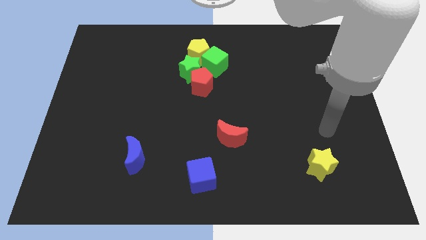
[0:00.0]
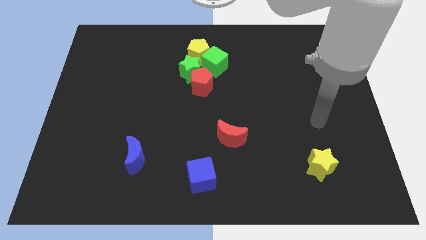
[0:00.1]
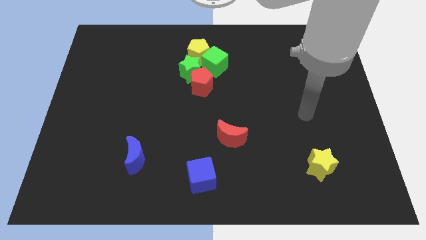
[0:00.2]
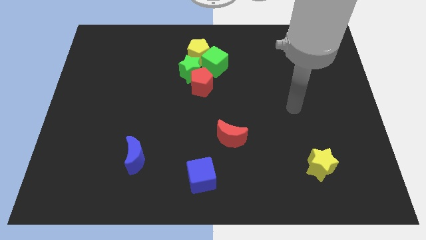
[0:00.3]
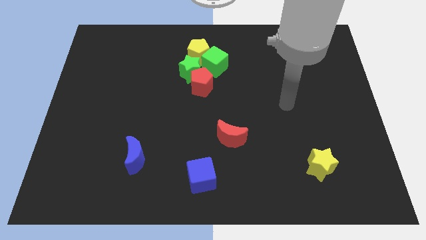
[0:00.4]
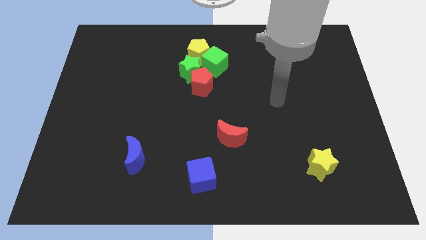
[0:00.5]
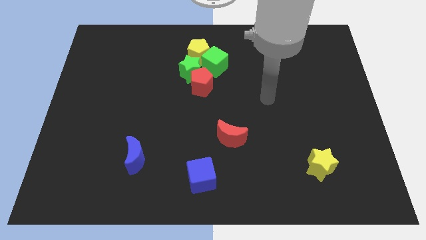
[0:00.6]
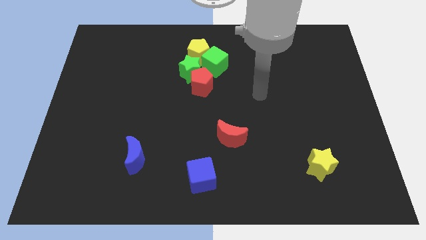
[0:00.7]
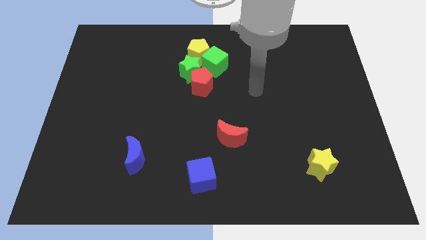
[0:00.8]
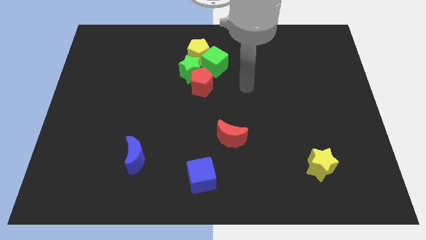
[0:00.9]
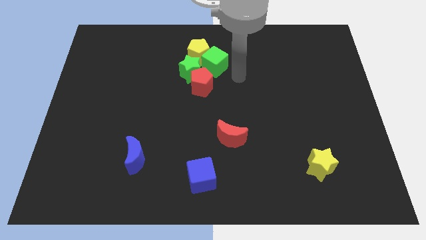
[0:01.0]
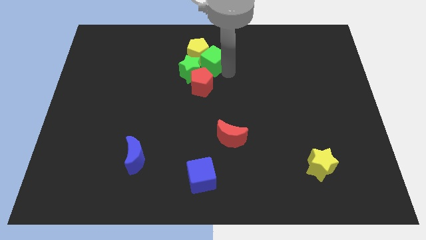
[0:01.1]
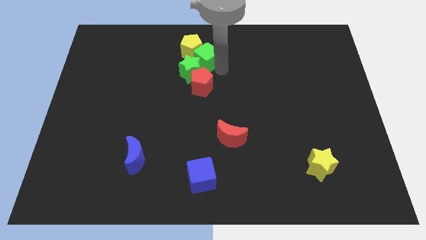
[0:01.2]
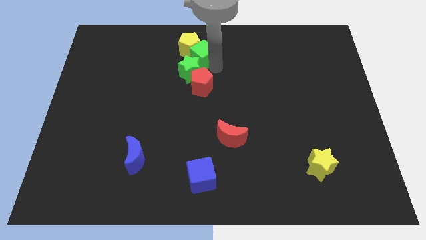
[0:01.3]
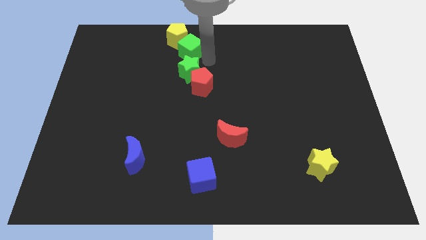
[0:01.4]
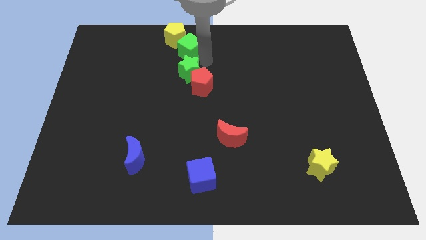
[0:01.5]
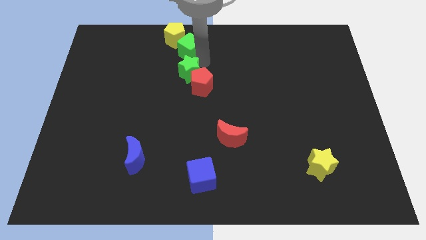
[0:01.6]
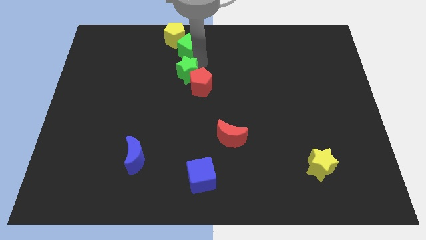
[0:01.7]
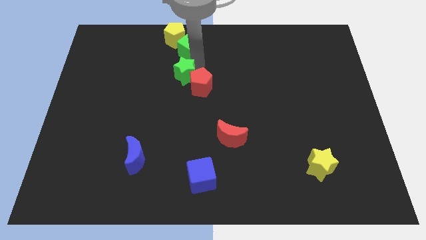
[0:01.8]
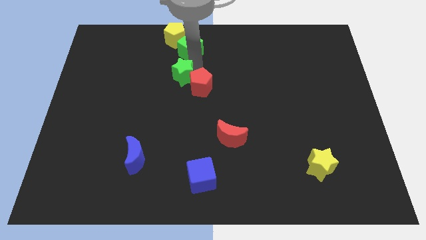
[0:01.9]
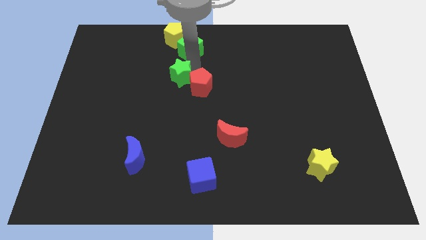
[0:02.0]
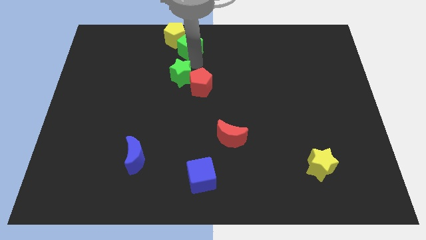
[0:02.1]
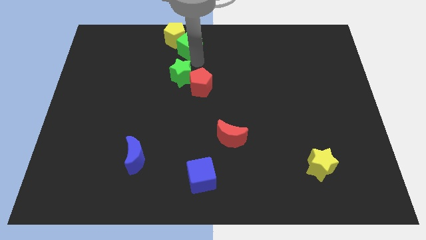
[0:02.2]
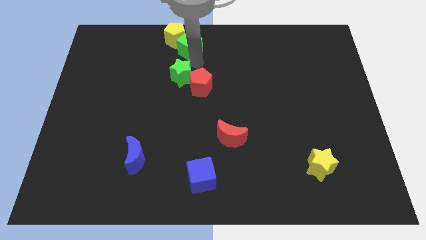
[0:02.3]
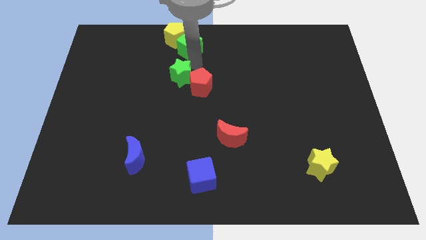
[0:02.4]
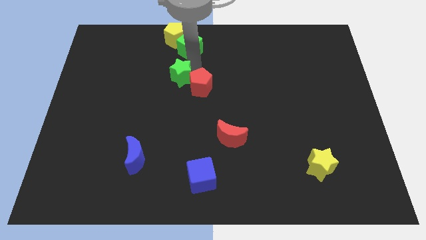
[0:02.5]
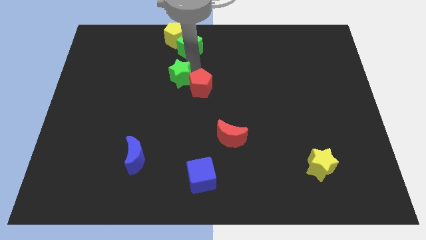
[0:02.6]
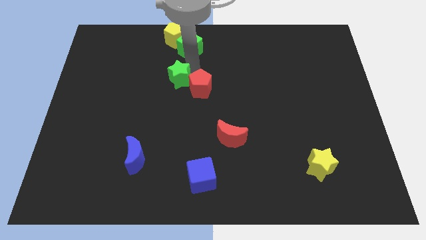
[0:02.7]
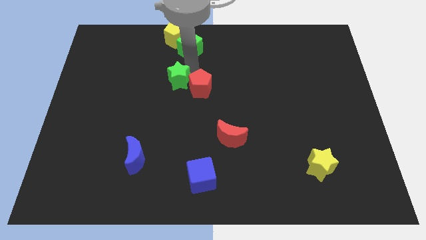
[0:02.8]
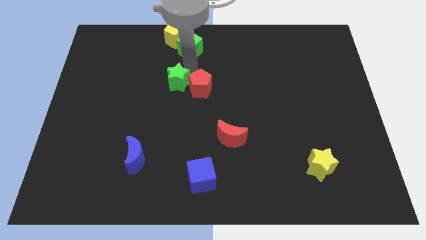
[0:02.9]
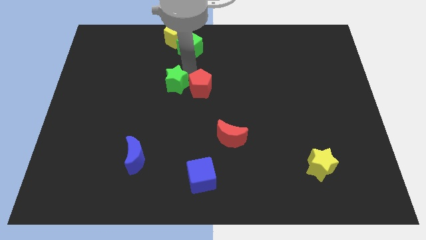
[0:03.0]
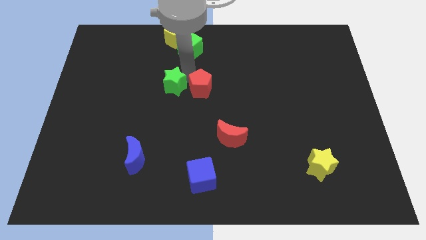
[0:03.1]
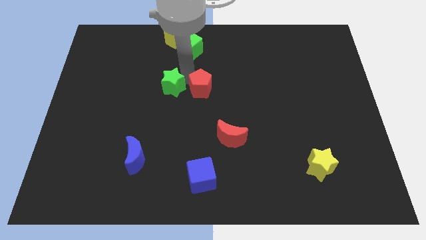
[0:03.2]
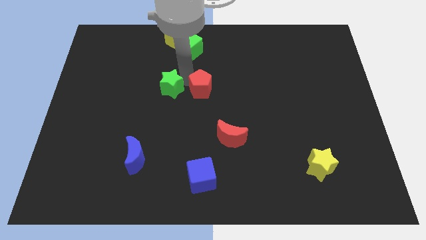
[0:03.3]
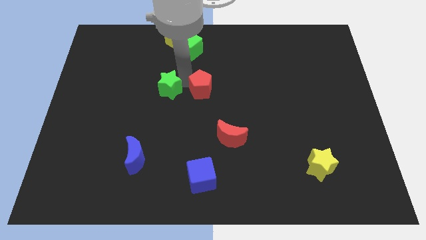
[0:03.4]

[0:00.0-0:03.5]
slightly move the green star downwards and left diagonally

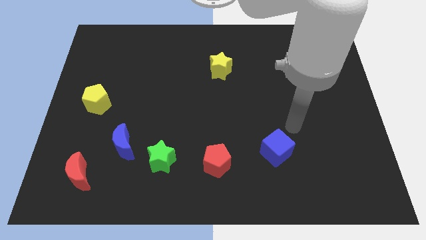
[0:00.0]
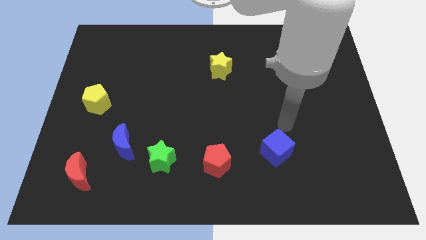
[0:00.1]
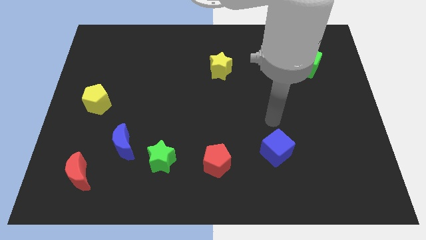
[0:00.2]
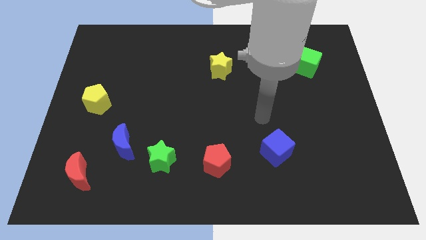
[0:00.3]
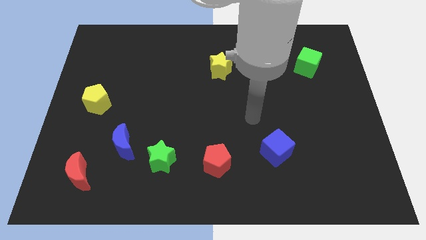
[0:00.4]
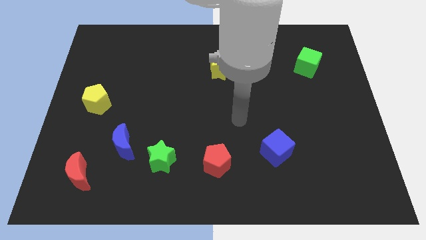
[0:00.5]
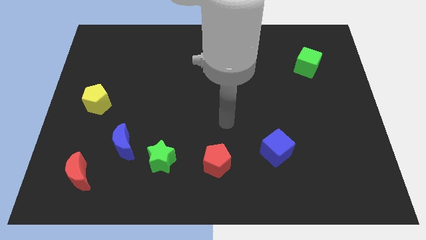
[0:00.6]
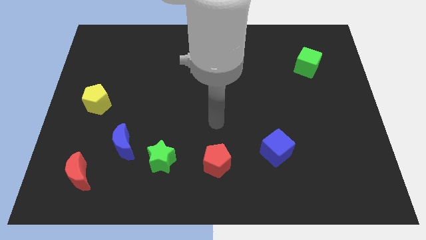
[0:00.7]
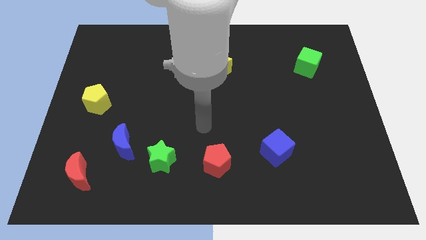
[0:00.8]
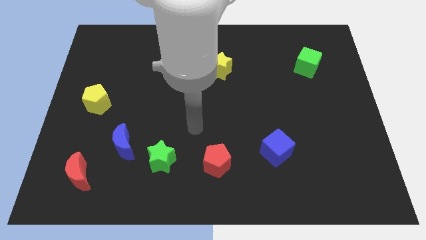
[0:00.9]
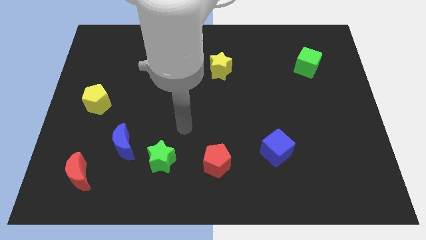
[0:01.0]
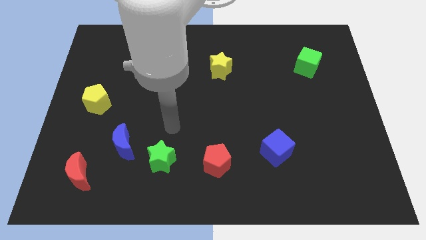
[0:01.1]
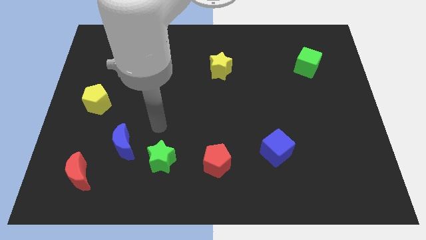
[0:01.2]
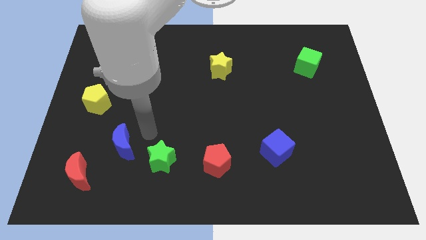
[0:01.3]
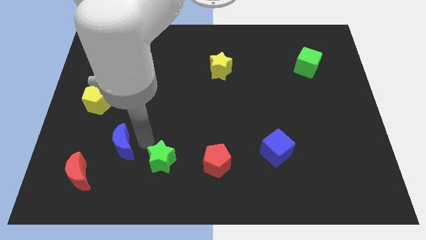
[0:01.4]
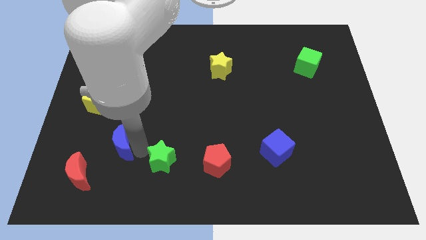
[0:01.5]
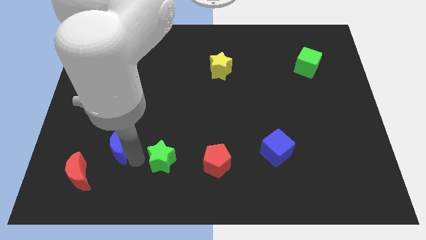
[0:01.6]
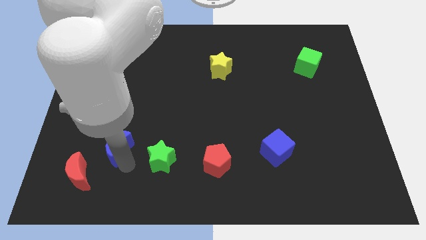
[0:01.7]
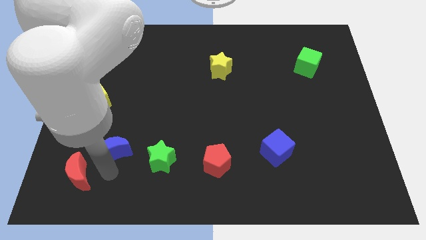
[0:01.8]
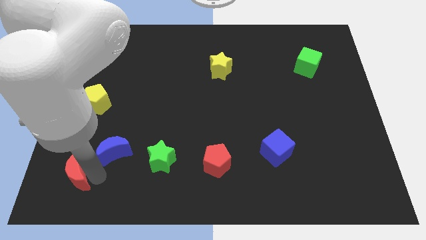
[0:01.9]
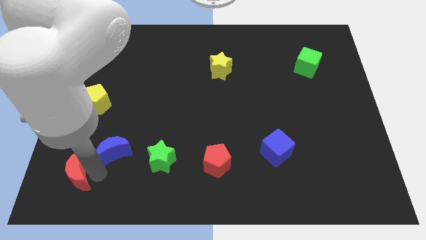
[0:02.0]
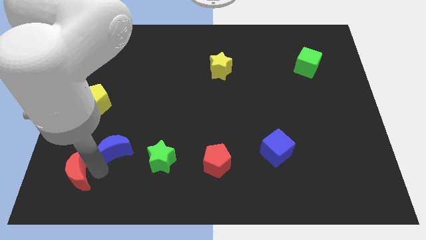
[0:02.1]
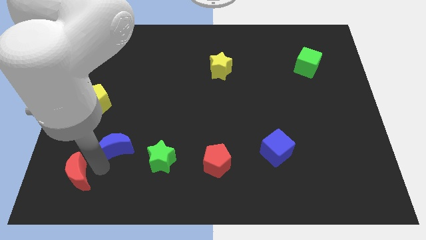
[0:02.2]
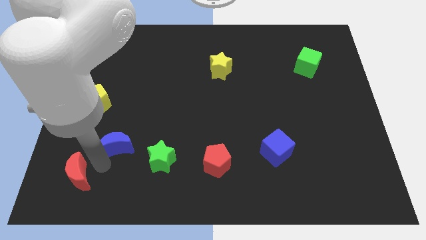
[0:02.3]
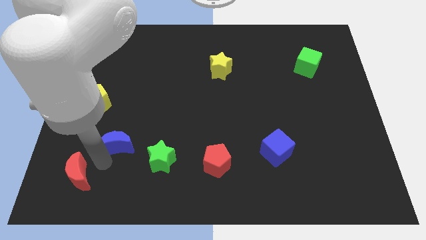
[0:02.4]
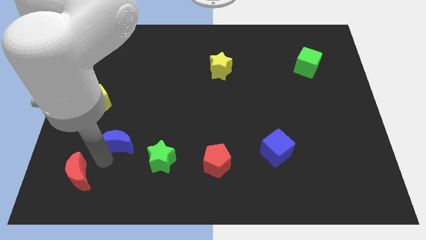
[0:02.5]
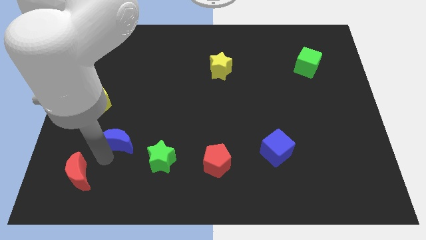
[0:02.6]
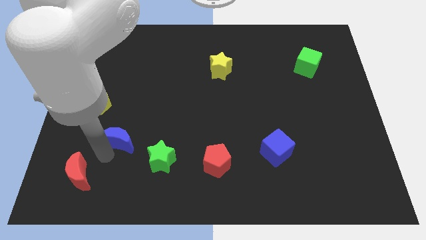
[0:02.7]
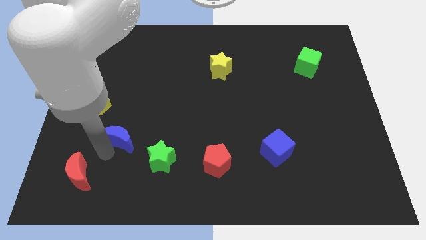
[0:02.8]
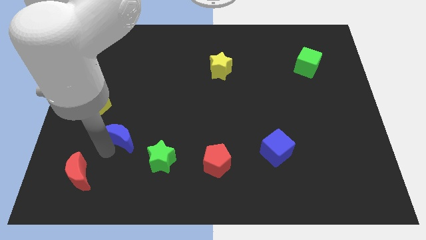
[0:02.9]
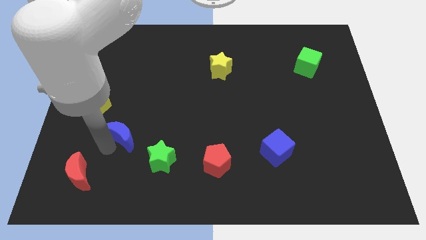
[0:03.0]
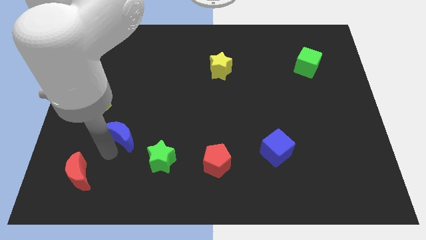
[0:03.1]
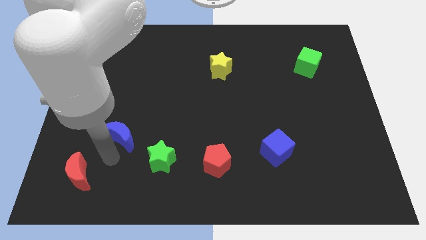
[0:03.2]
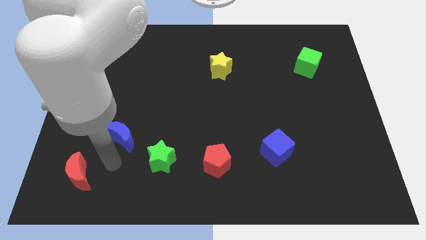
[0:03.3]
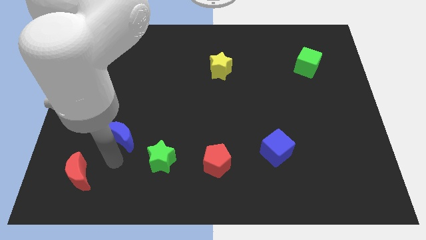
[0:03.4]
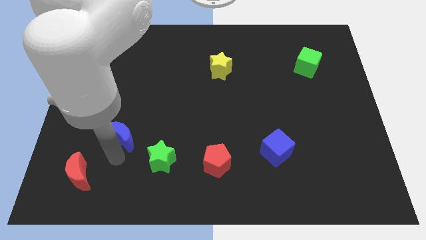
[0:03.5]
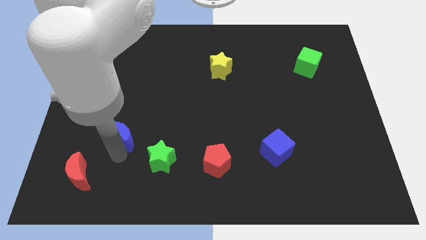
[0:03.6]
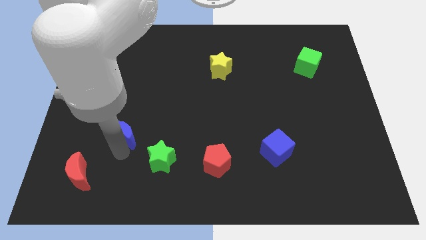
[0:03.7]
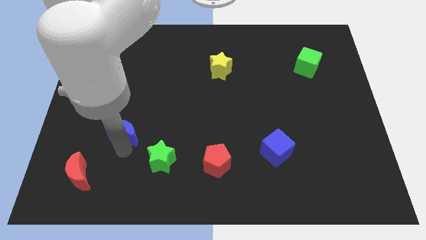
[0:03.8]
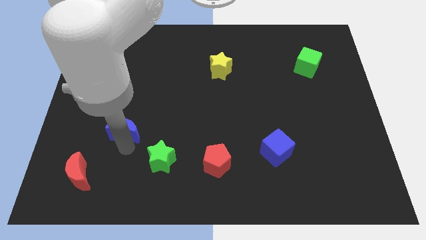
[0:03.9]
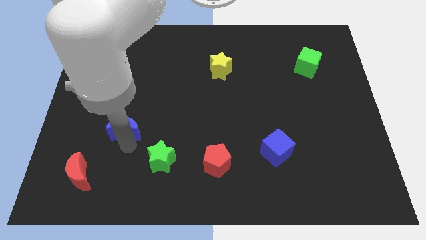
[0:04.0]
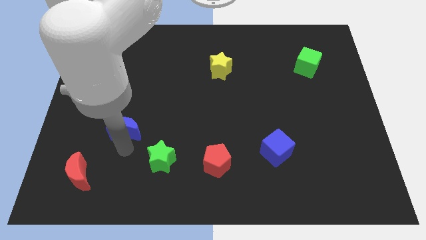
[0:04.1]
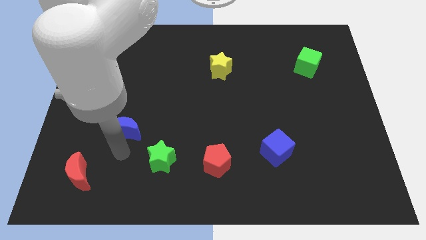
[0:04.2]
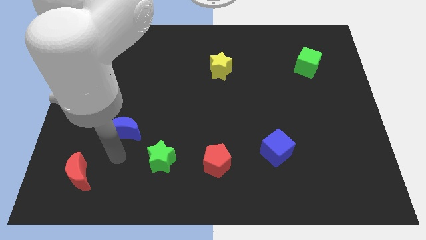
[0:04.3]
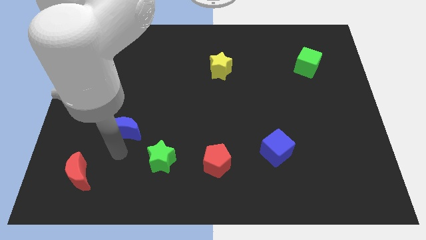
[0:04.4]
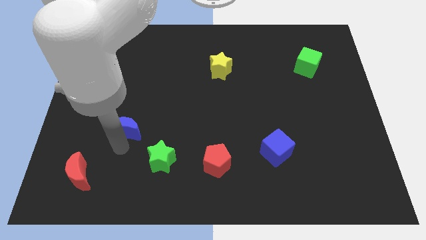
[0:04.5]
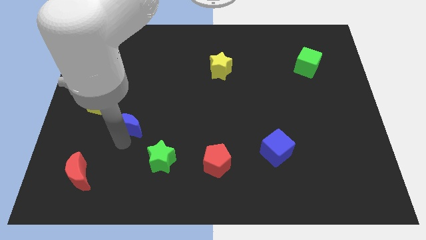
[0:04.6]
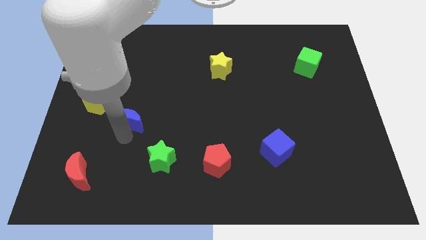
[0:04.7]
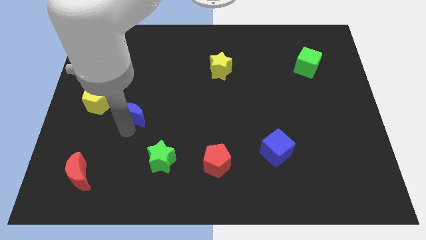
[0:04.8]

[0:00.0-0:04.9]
slide the blue moon a little upwards
